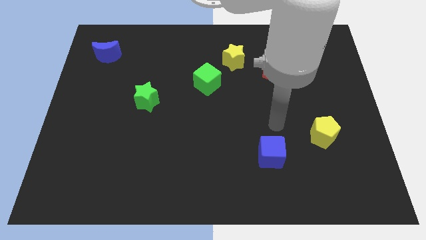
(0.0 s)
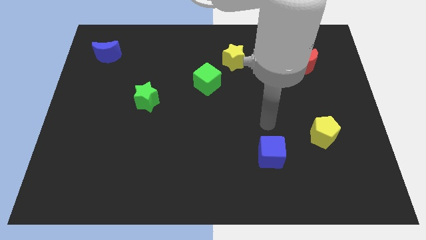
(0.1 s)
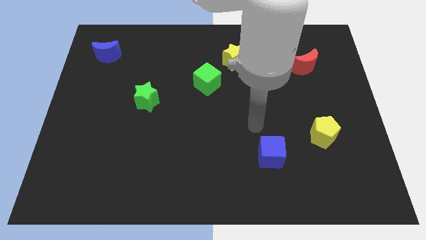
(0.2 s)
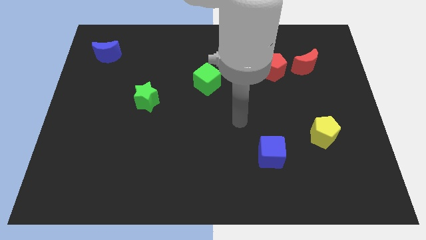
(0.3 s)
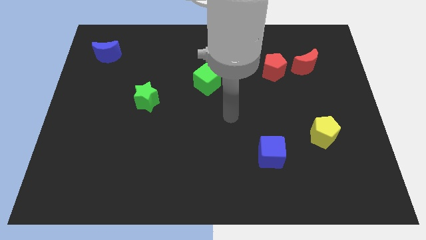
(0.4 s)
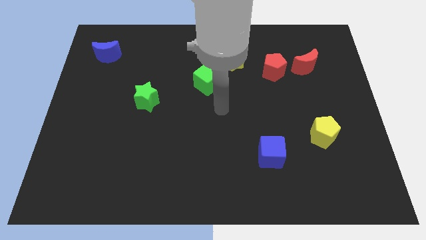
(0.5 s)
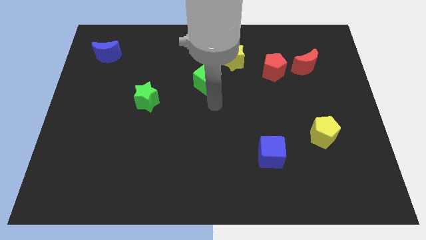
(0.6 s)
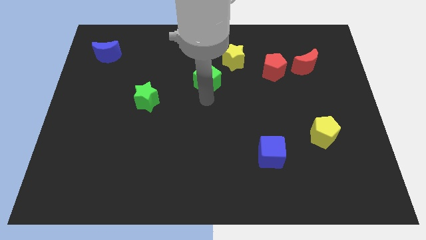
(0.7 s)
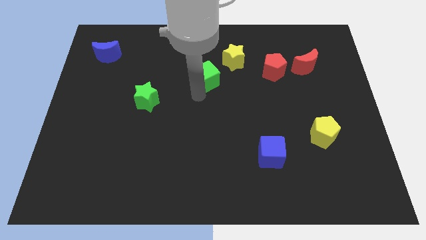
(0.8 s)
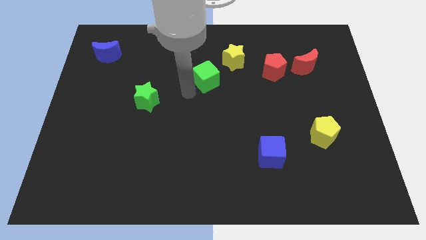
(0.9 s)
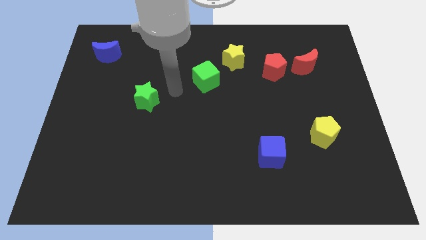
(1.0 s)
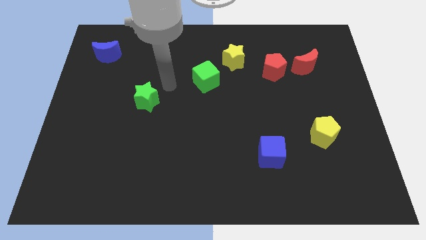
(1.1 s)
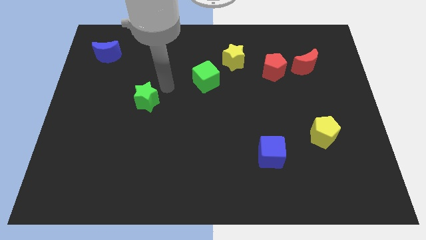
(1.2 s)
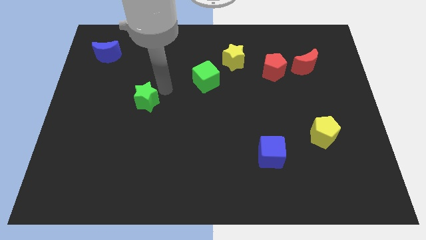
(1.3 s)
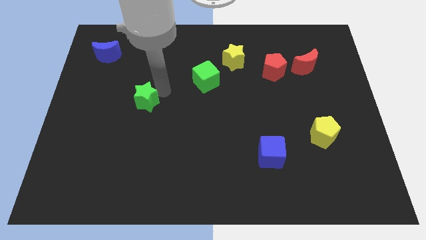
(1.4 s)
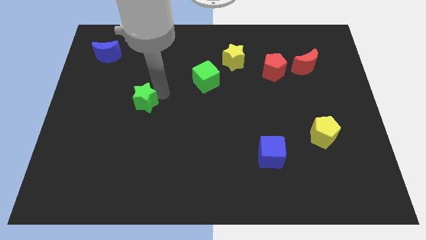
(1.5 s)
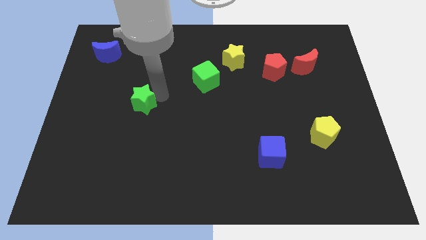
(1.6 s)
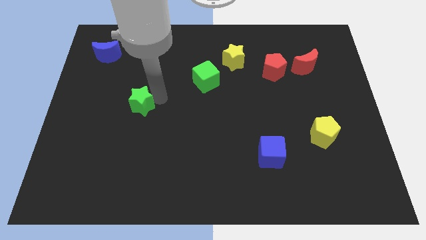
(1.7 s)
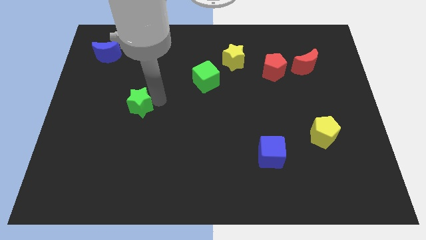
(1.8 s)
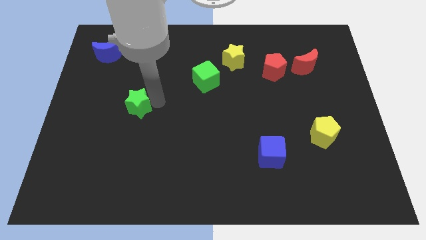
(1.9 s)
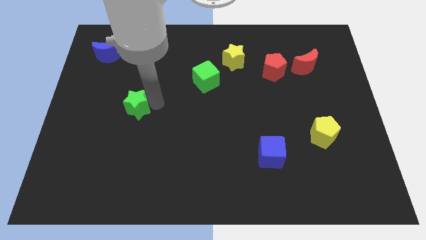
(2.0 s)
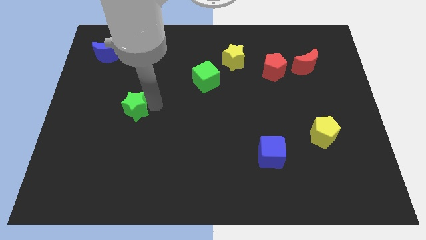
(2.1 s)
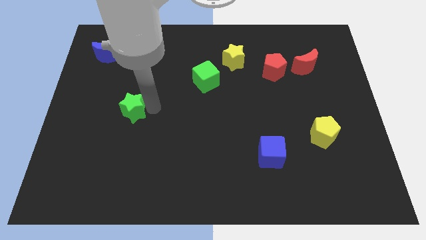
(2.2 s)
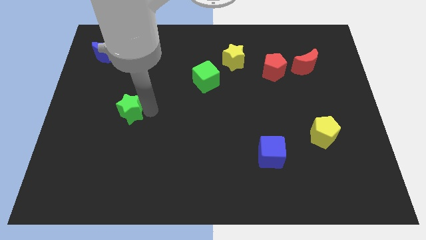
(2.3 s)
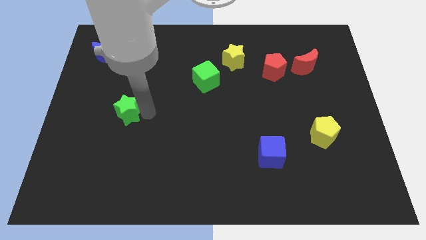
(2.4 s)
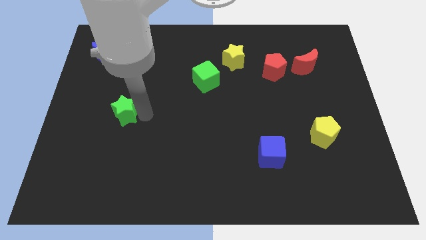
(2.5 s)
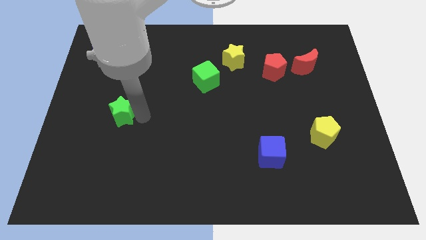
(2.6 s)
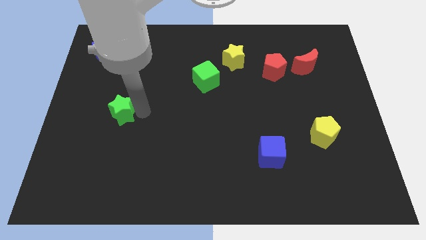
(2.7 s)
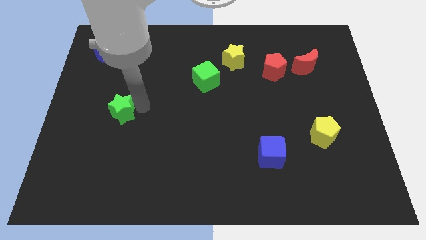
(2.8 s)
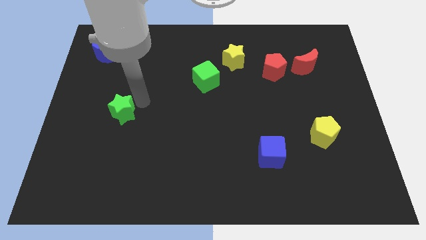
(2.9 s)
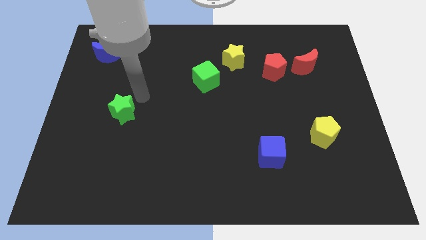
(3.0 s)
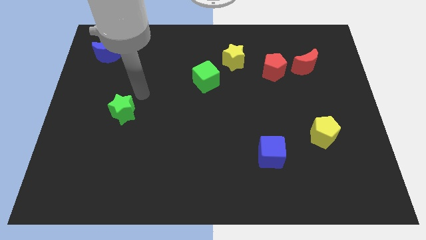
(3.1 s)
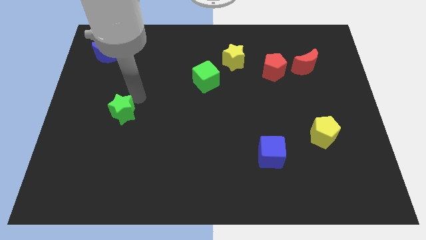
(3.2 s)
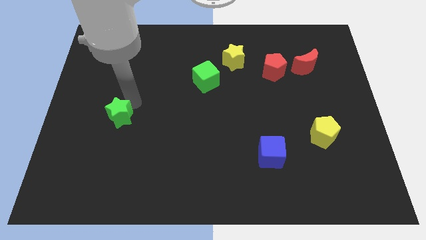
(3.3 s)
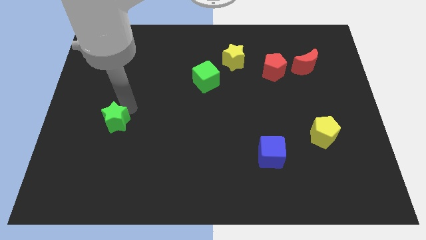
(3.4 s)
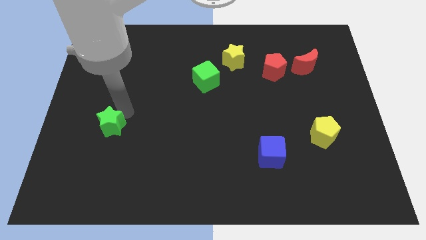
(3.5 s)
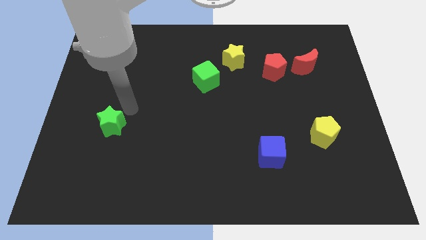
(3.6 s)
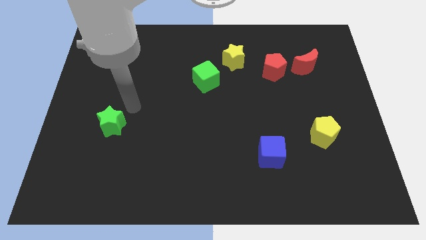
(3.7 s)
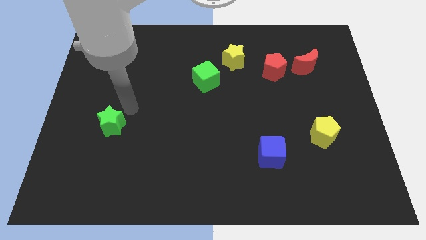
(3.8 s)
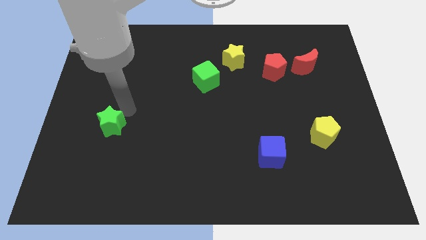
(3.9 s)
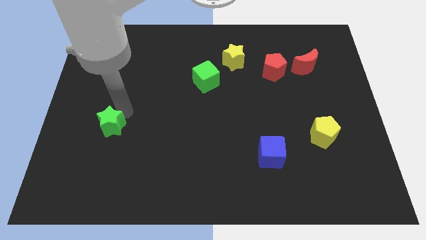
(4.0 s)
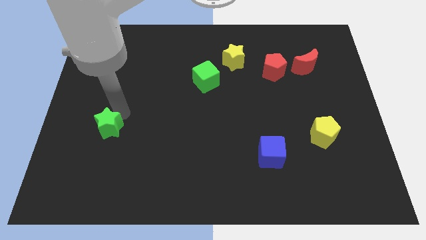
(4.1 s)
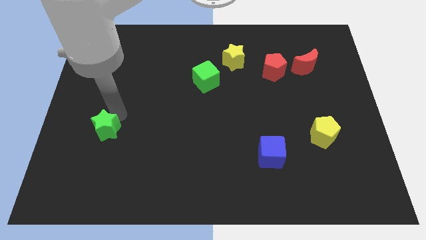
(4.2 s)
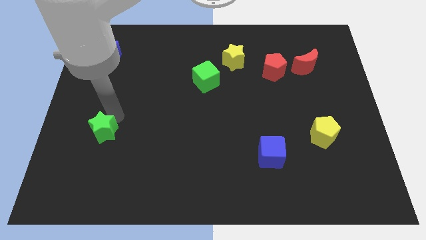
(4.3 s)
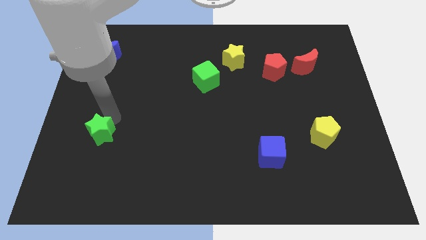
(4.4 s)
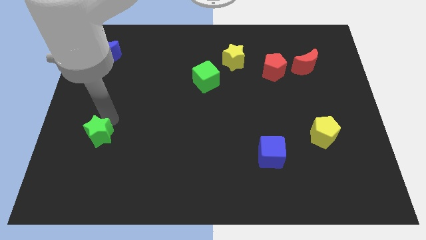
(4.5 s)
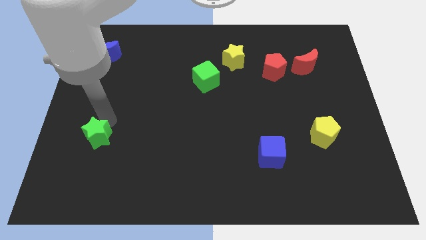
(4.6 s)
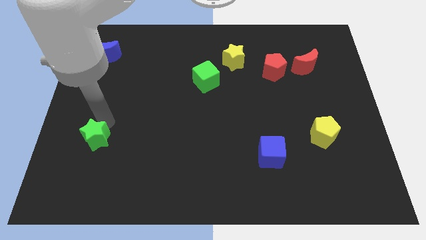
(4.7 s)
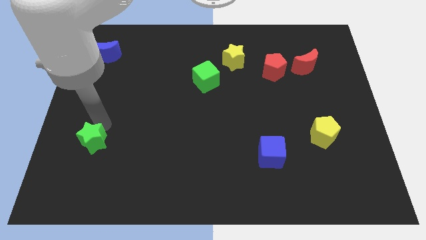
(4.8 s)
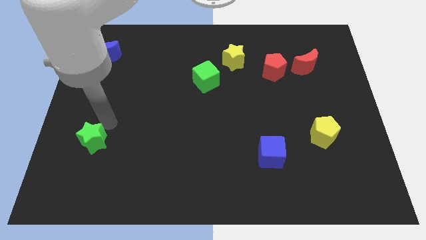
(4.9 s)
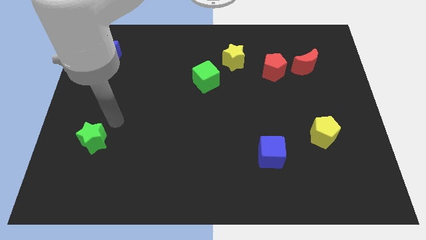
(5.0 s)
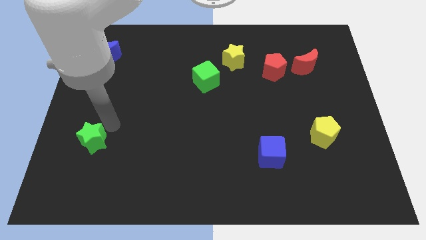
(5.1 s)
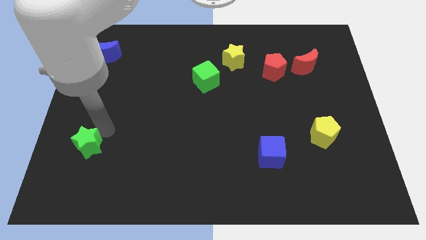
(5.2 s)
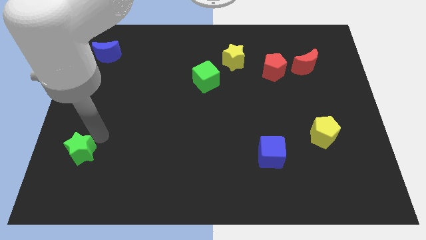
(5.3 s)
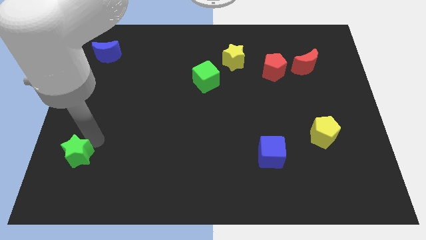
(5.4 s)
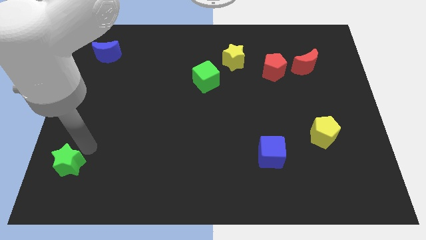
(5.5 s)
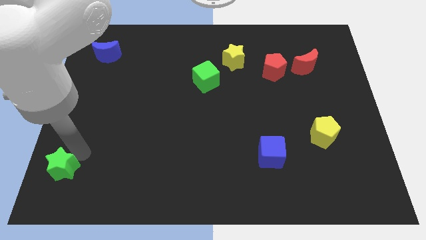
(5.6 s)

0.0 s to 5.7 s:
push the green star to the bottom left corner
